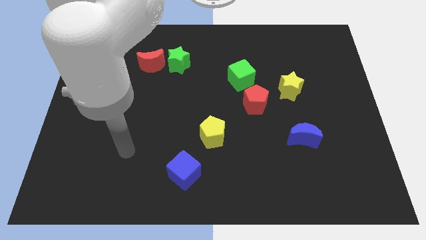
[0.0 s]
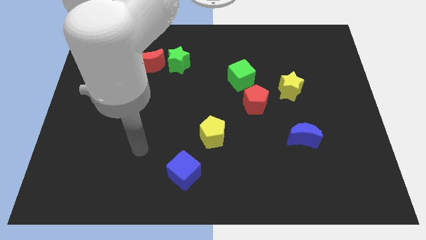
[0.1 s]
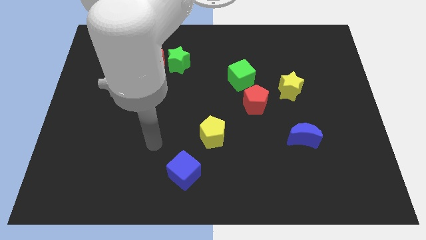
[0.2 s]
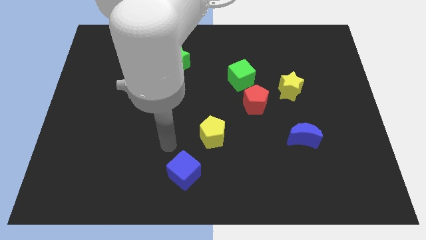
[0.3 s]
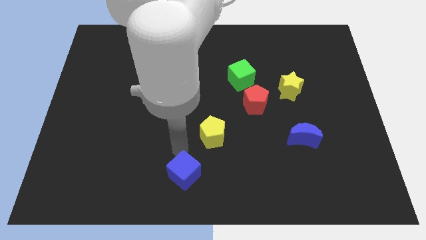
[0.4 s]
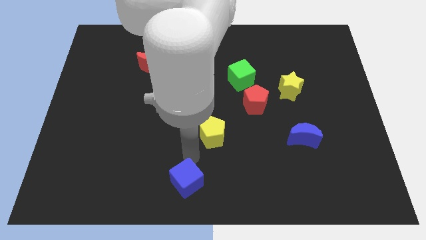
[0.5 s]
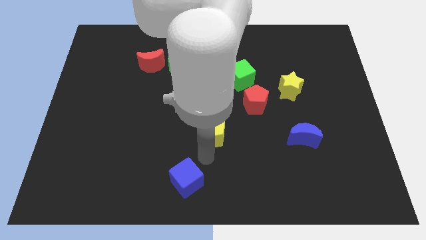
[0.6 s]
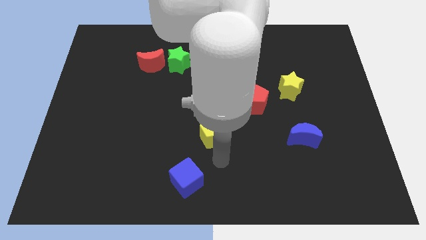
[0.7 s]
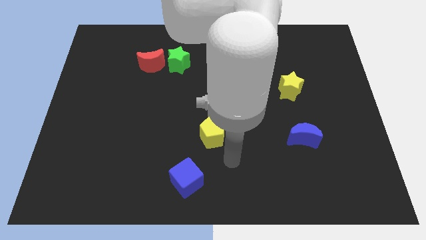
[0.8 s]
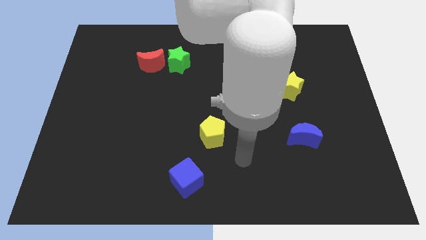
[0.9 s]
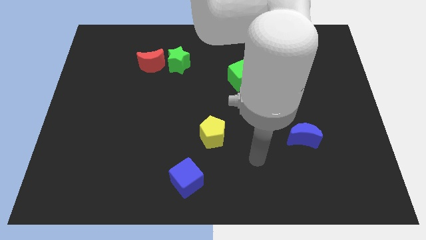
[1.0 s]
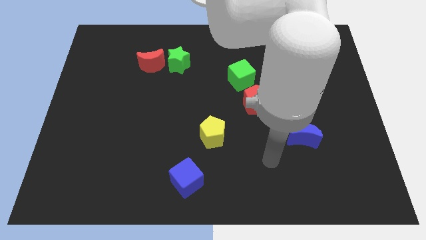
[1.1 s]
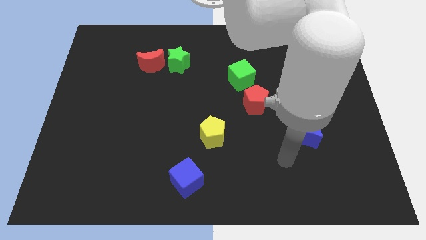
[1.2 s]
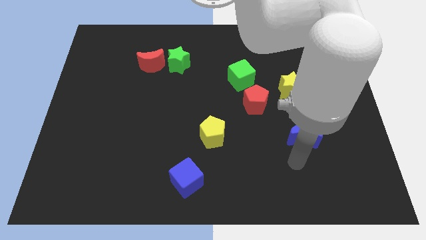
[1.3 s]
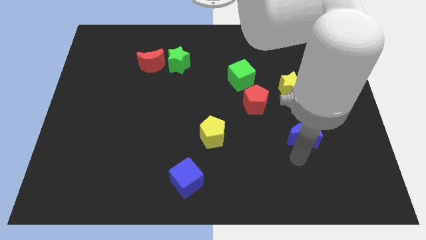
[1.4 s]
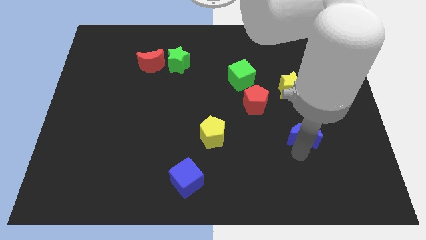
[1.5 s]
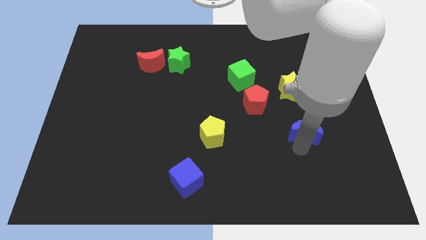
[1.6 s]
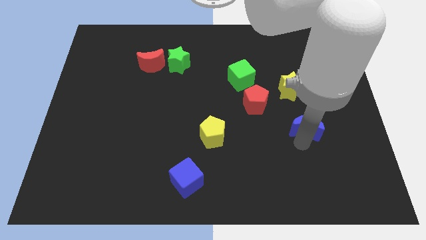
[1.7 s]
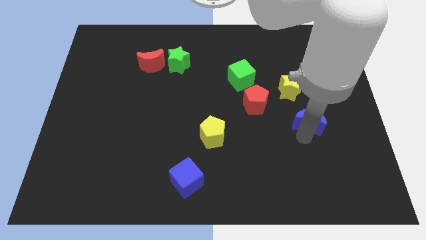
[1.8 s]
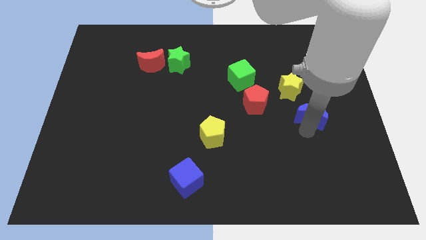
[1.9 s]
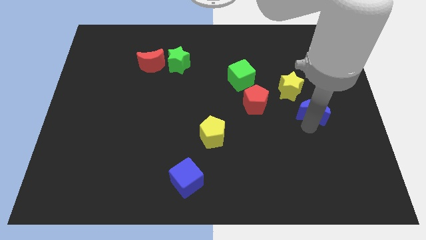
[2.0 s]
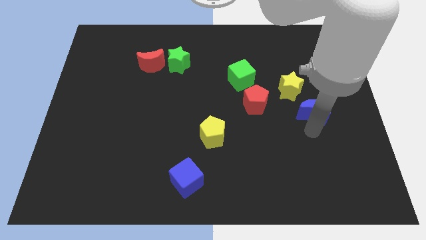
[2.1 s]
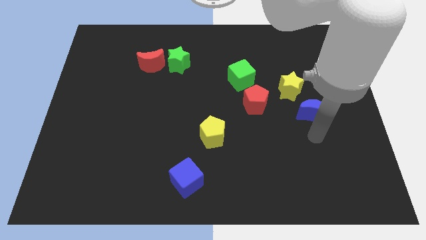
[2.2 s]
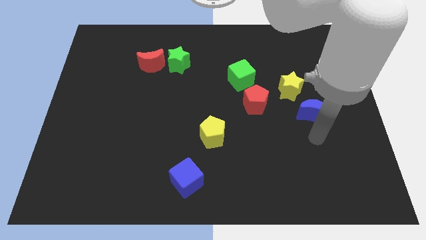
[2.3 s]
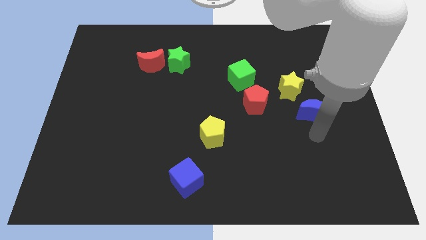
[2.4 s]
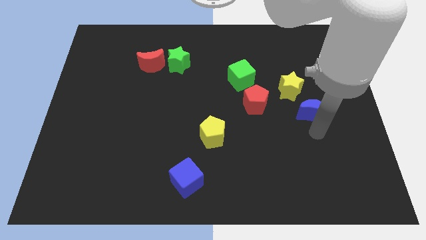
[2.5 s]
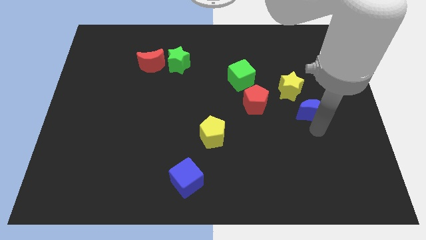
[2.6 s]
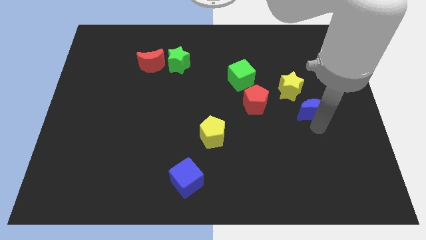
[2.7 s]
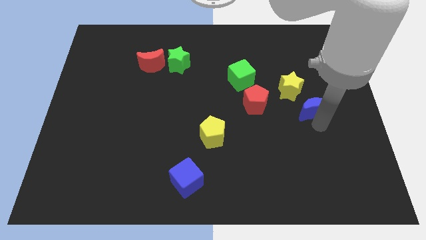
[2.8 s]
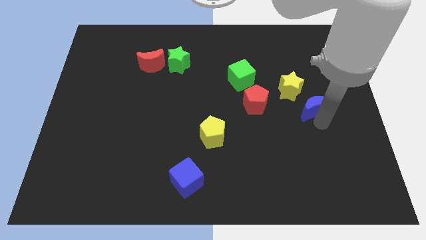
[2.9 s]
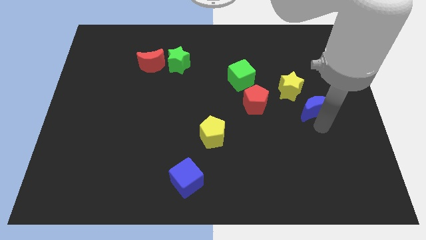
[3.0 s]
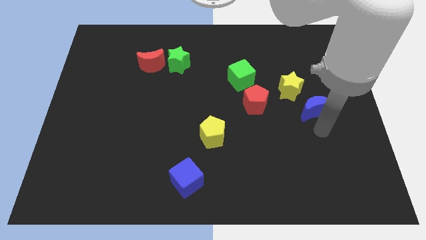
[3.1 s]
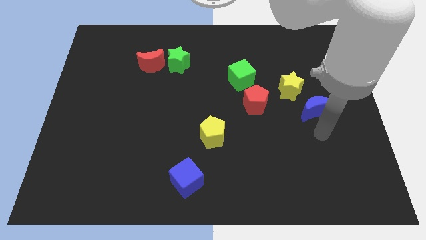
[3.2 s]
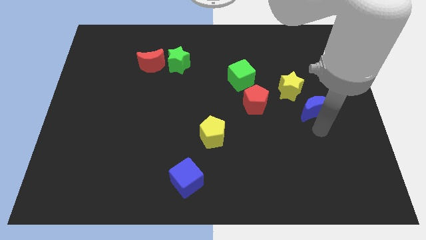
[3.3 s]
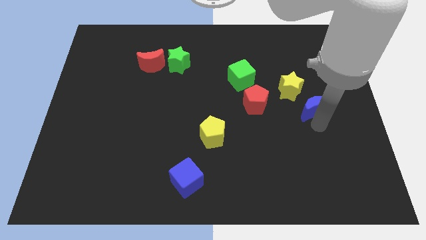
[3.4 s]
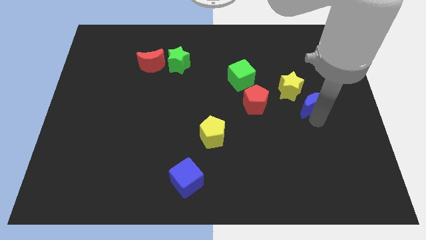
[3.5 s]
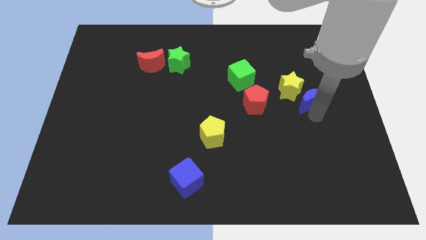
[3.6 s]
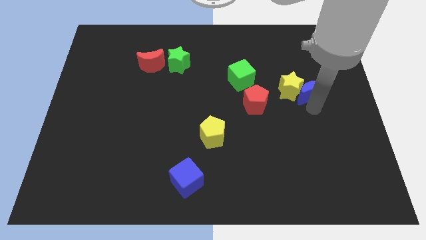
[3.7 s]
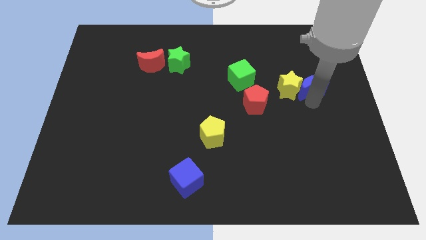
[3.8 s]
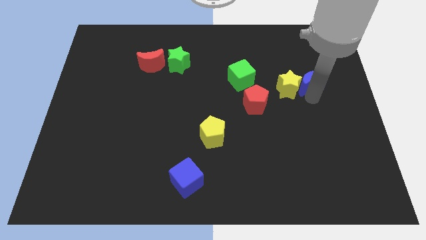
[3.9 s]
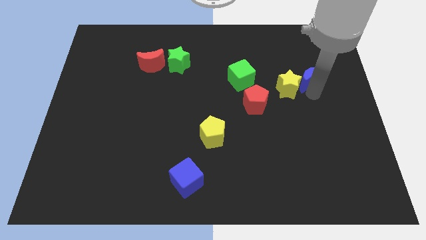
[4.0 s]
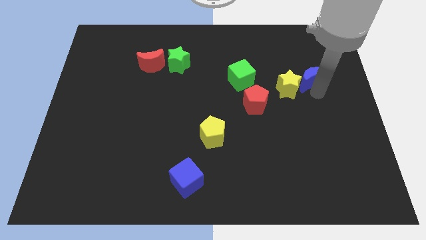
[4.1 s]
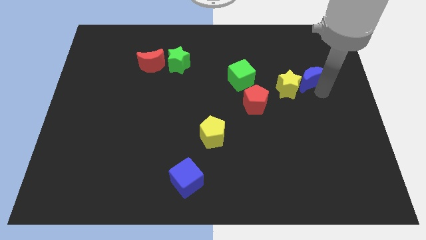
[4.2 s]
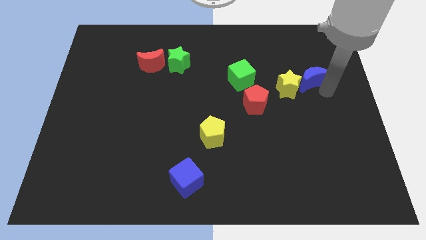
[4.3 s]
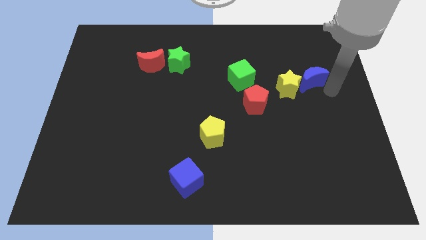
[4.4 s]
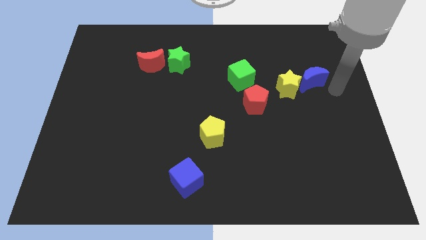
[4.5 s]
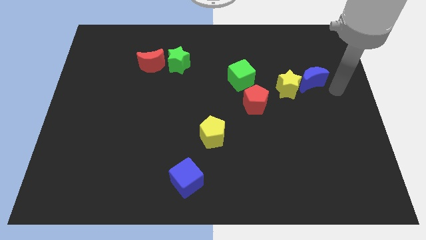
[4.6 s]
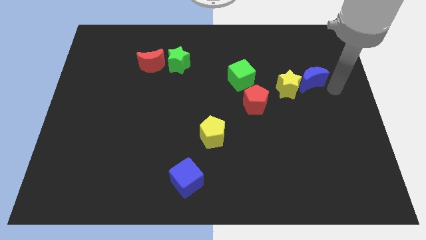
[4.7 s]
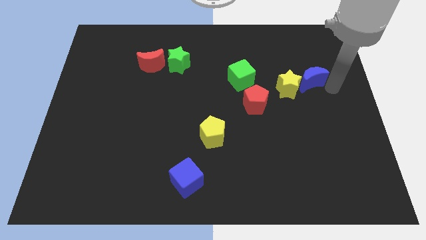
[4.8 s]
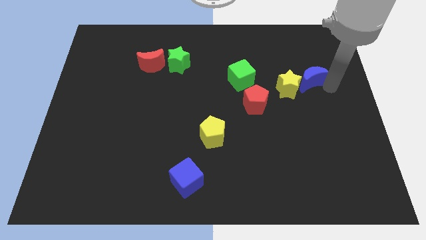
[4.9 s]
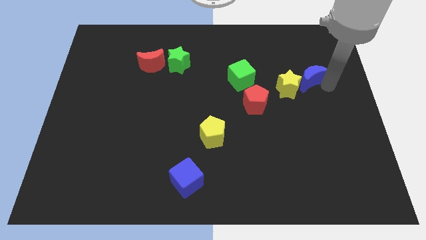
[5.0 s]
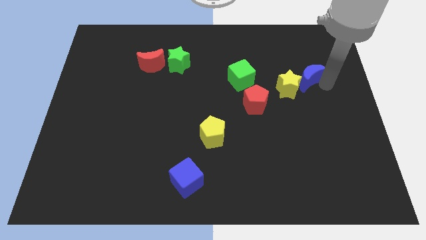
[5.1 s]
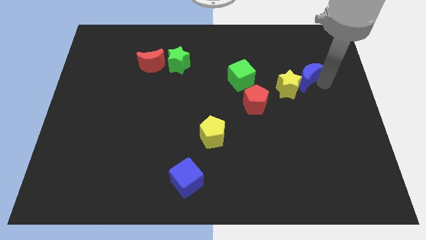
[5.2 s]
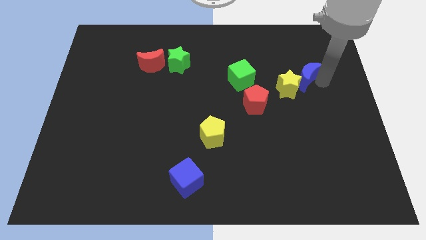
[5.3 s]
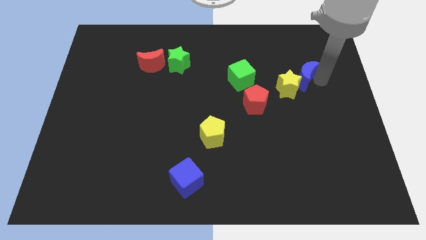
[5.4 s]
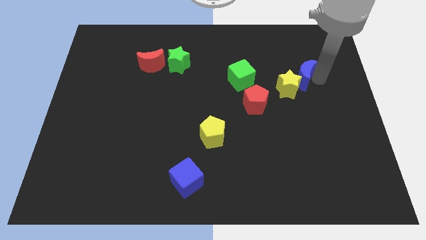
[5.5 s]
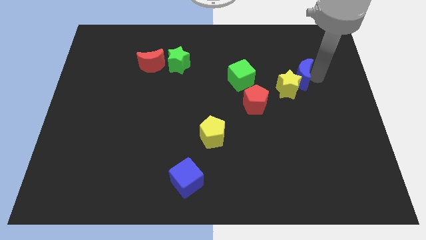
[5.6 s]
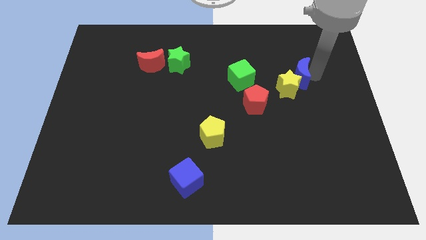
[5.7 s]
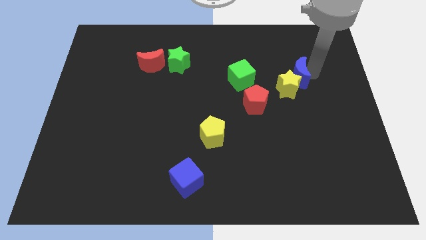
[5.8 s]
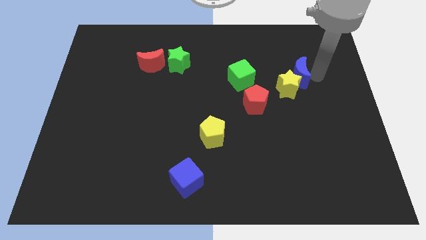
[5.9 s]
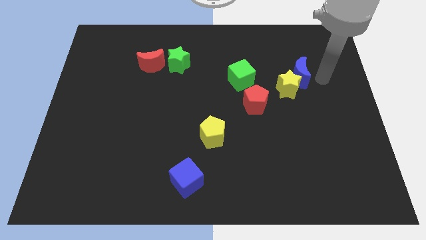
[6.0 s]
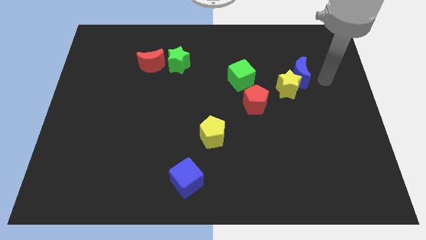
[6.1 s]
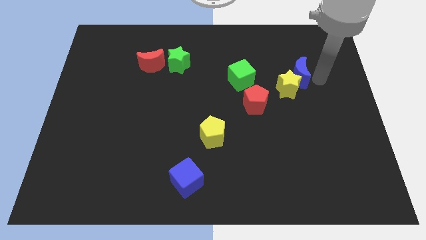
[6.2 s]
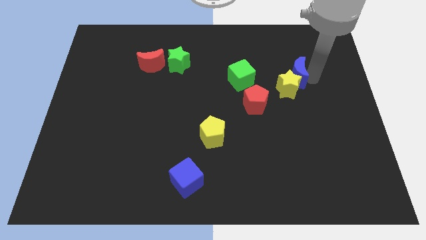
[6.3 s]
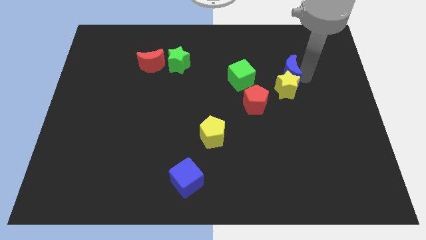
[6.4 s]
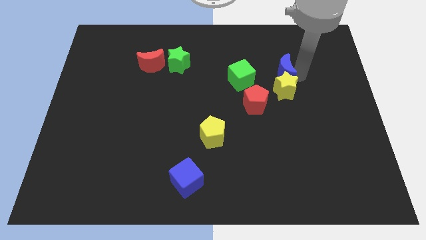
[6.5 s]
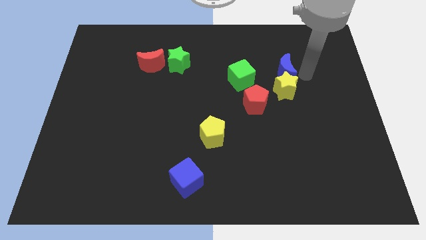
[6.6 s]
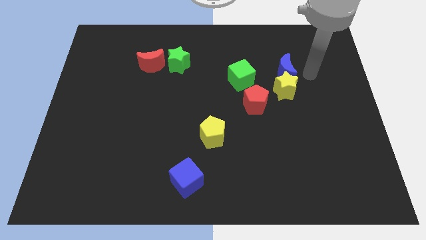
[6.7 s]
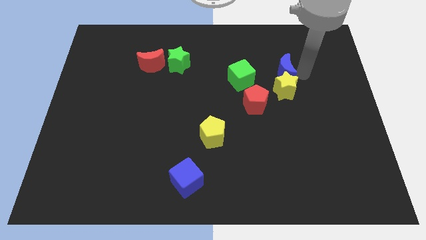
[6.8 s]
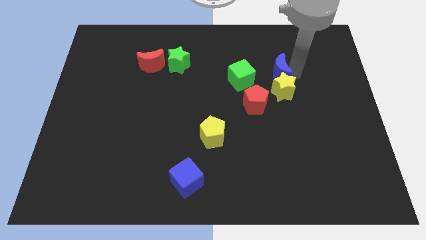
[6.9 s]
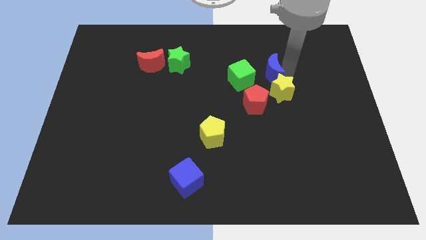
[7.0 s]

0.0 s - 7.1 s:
move the blue moon above the red pentagon
